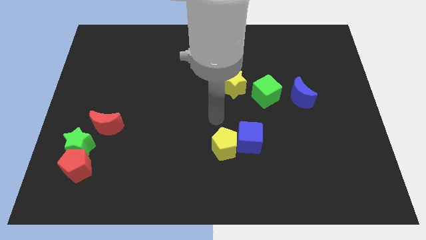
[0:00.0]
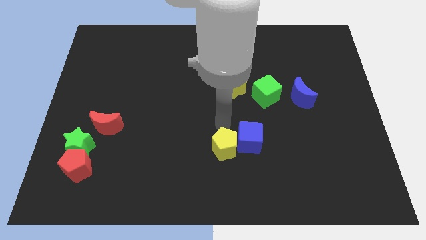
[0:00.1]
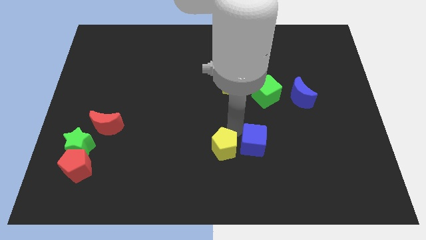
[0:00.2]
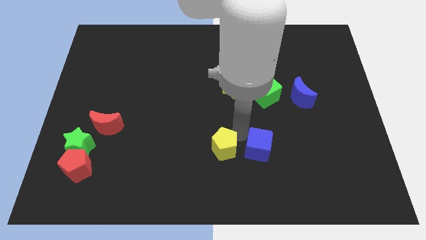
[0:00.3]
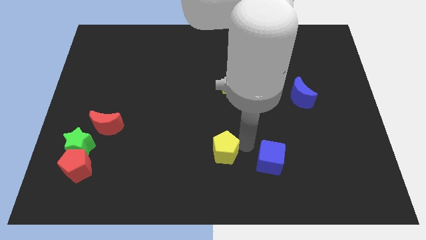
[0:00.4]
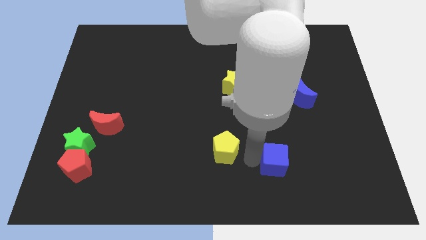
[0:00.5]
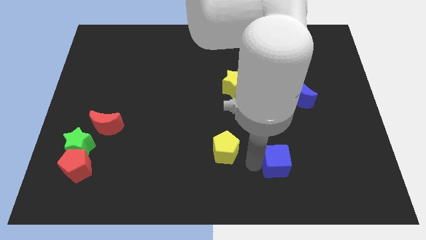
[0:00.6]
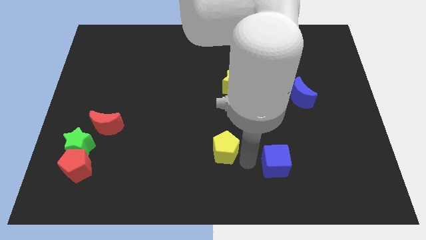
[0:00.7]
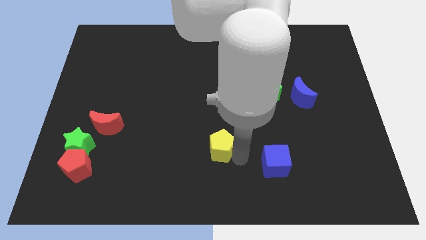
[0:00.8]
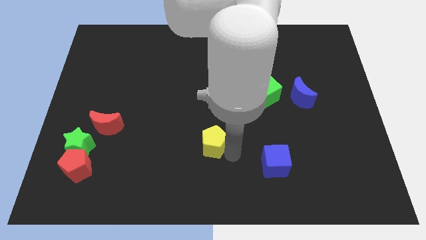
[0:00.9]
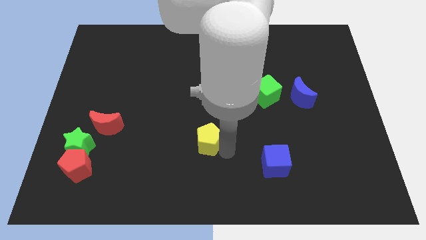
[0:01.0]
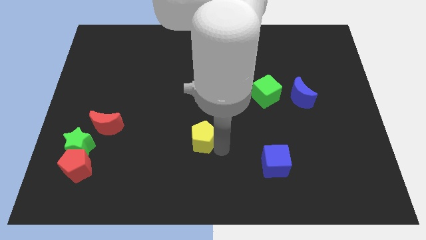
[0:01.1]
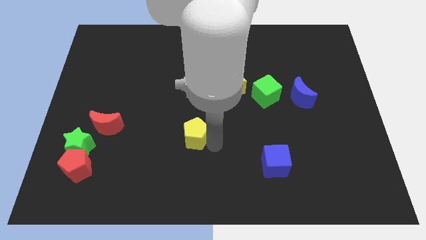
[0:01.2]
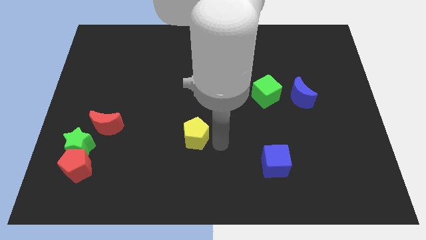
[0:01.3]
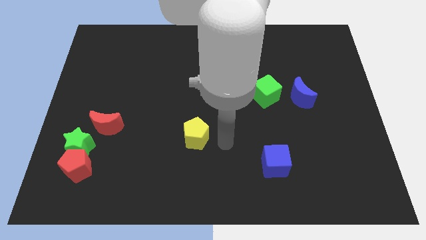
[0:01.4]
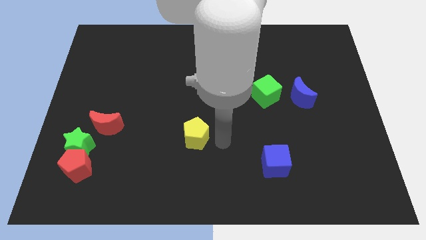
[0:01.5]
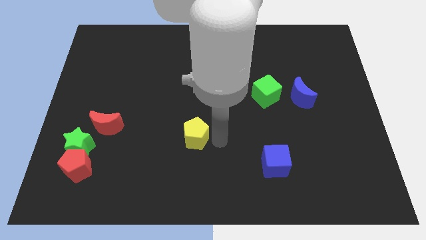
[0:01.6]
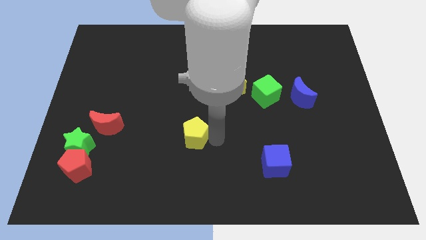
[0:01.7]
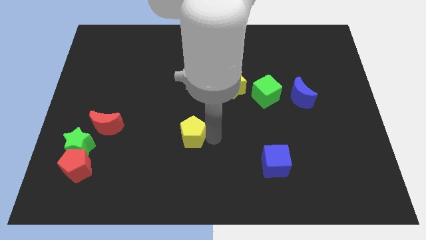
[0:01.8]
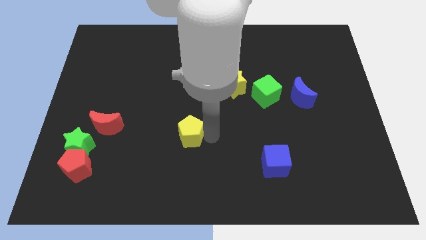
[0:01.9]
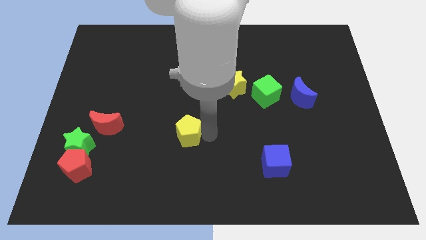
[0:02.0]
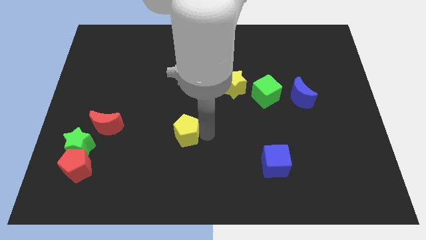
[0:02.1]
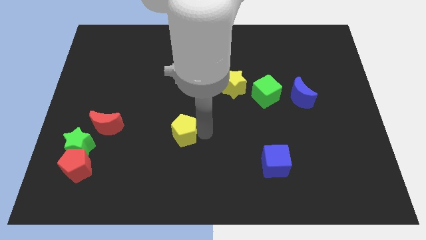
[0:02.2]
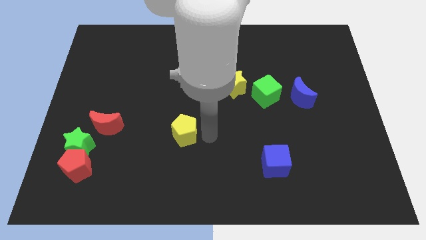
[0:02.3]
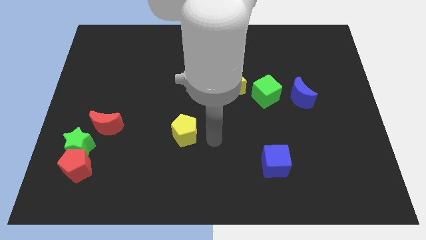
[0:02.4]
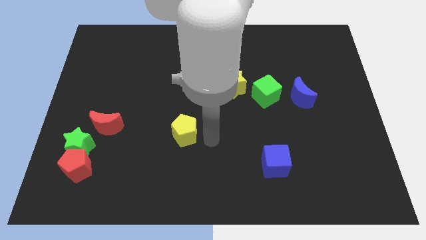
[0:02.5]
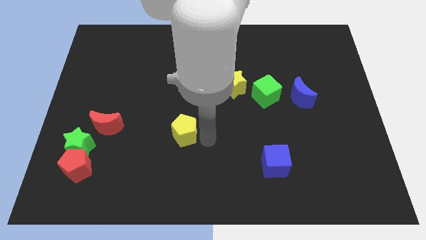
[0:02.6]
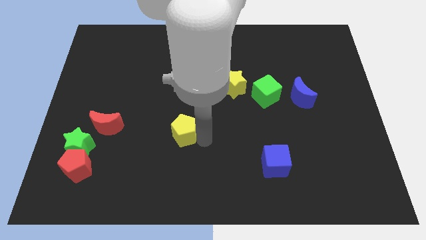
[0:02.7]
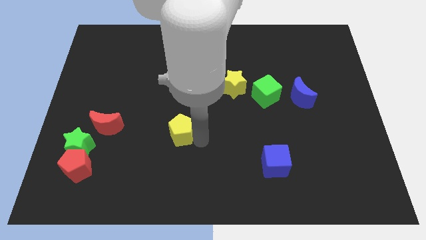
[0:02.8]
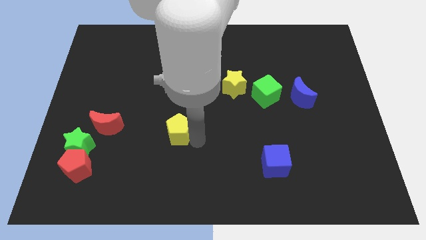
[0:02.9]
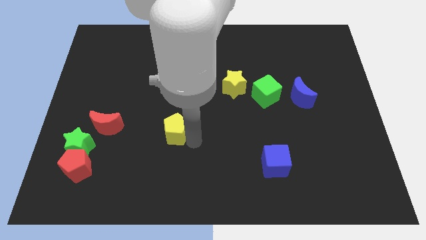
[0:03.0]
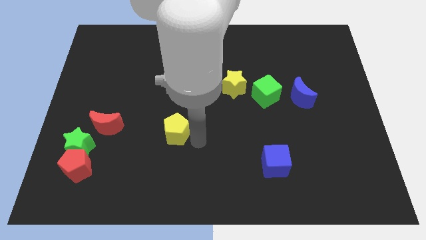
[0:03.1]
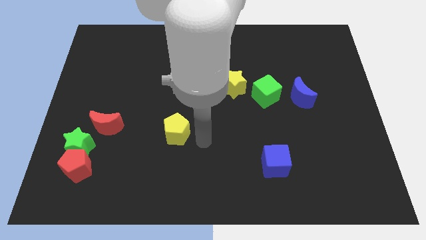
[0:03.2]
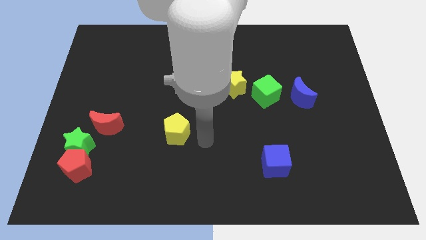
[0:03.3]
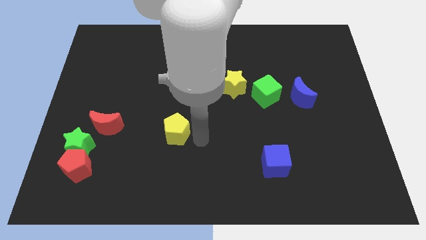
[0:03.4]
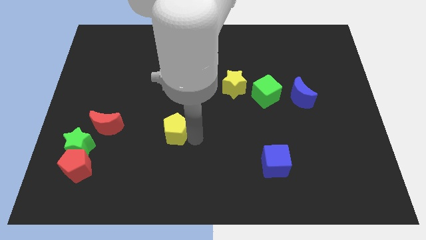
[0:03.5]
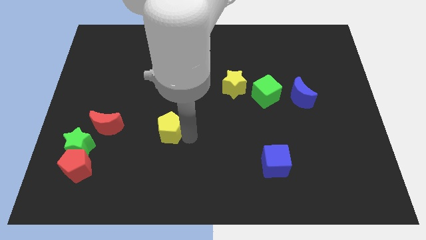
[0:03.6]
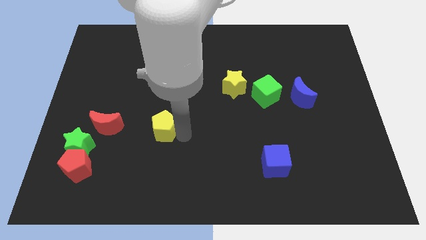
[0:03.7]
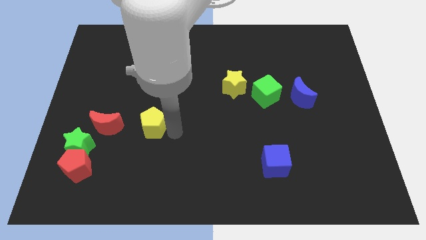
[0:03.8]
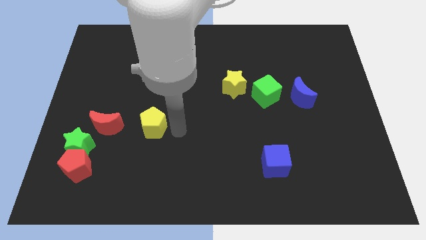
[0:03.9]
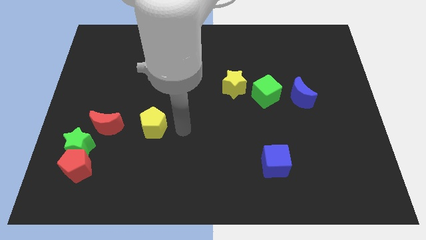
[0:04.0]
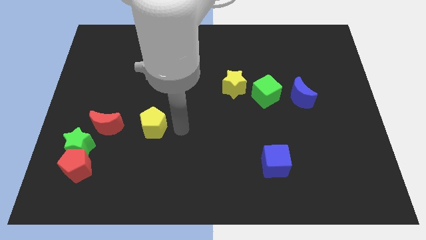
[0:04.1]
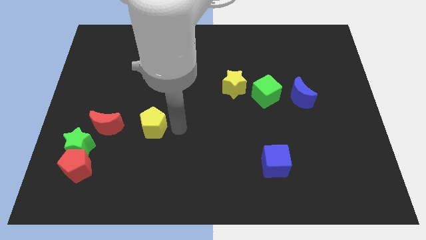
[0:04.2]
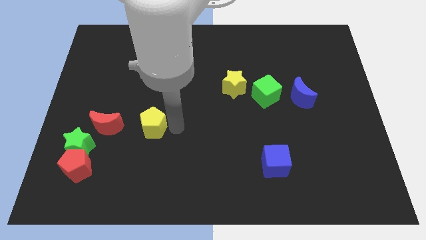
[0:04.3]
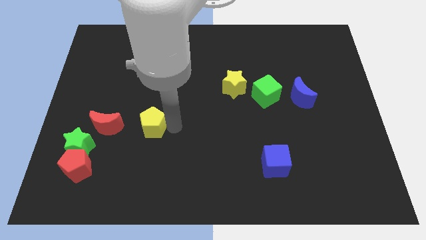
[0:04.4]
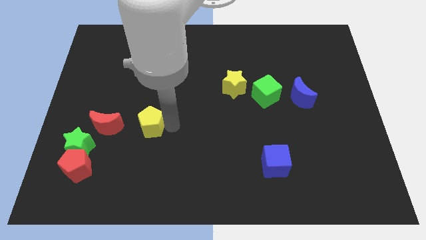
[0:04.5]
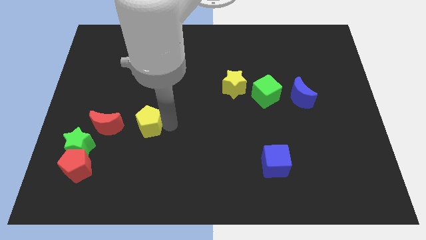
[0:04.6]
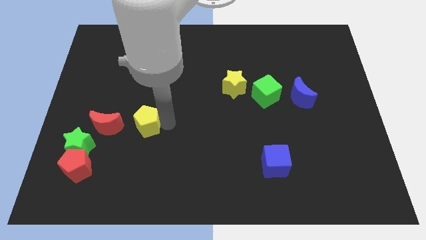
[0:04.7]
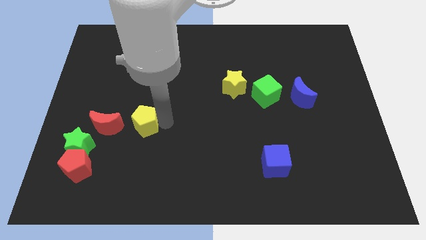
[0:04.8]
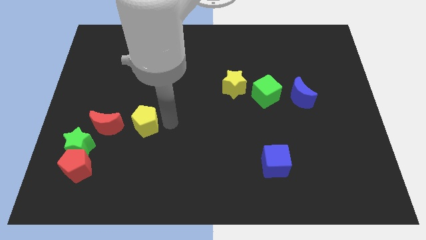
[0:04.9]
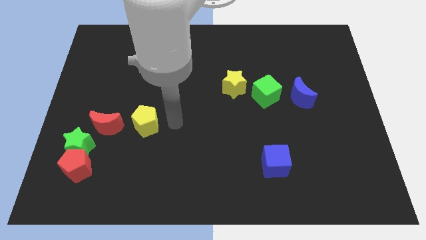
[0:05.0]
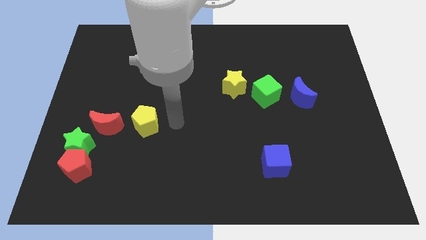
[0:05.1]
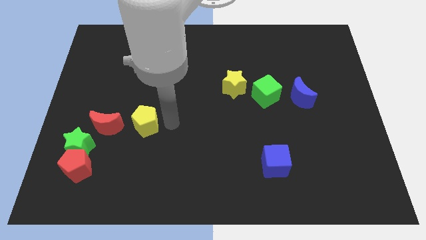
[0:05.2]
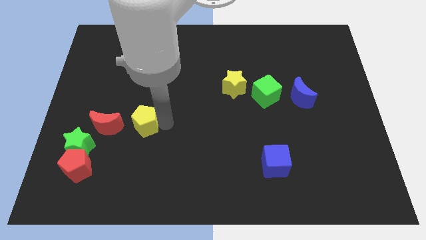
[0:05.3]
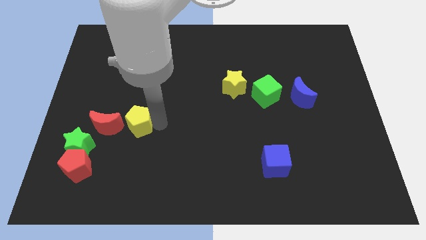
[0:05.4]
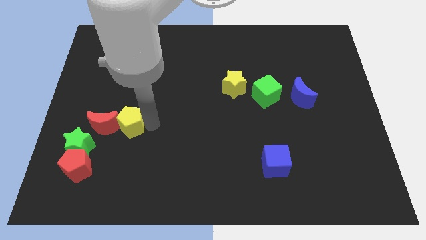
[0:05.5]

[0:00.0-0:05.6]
move the yellow pentagon close to the red moon

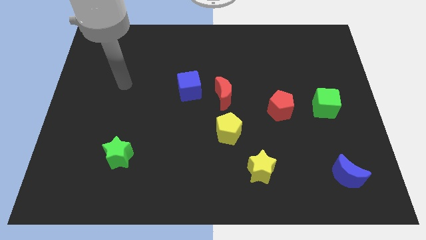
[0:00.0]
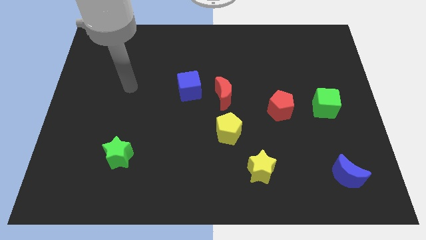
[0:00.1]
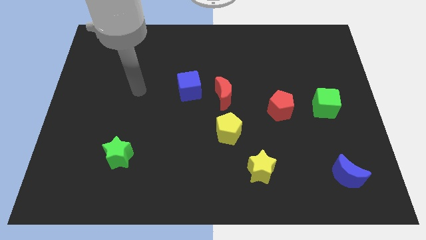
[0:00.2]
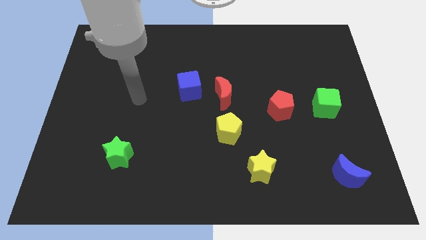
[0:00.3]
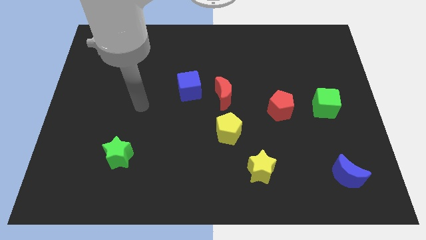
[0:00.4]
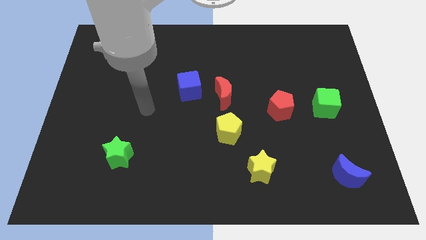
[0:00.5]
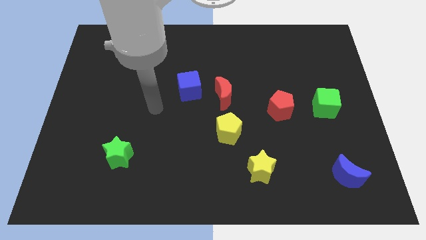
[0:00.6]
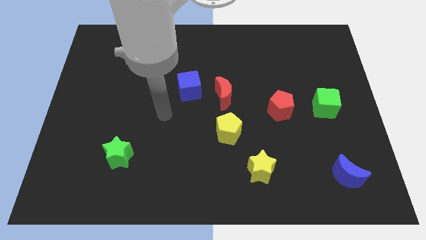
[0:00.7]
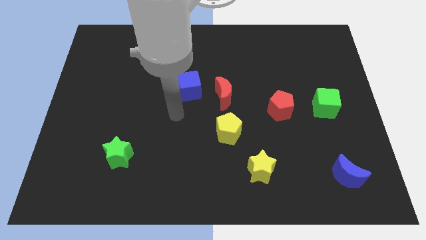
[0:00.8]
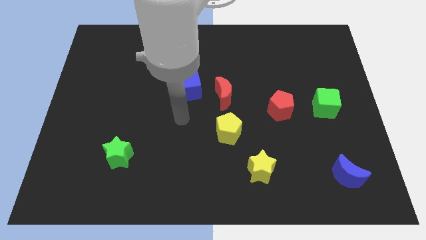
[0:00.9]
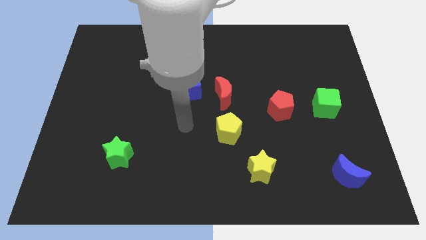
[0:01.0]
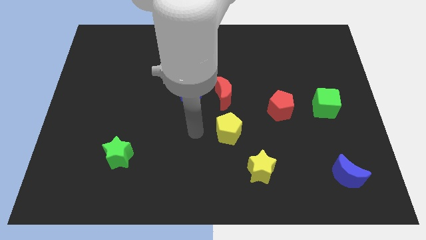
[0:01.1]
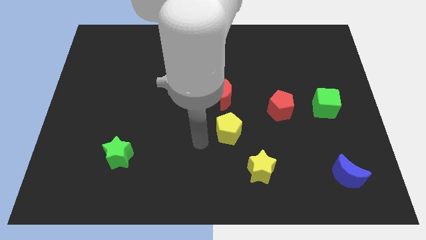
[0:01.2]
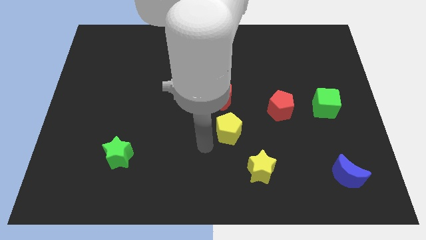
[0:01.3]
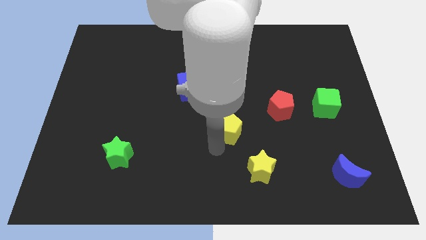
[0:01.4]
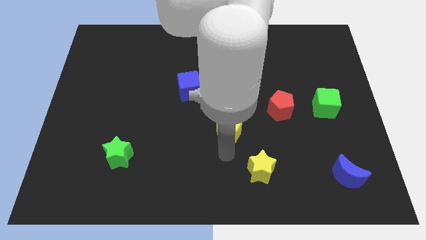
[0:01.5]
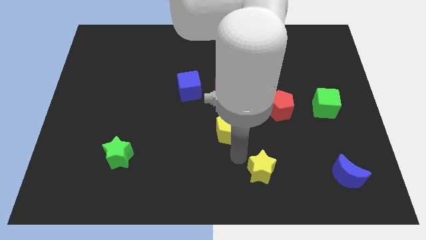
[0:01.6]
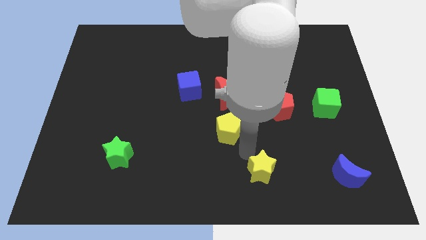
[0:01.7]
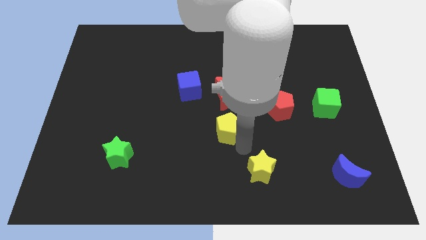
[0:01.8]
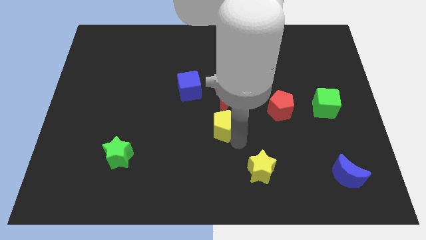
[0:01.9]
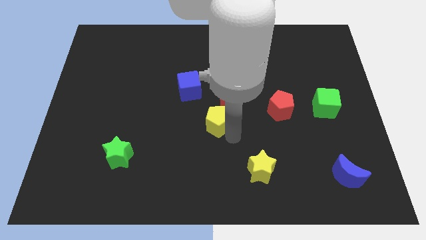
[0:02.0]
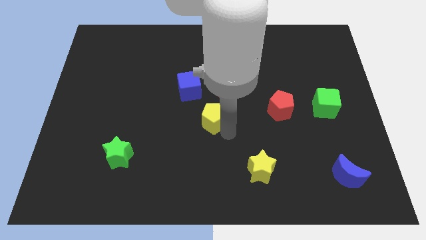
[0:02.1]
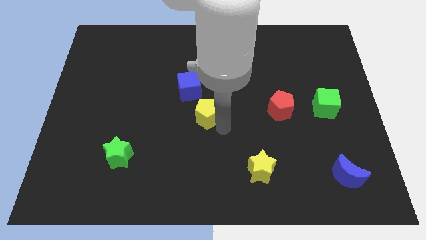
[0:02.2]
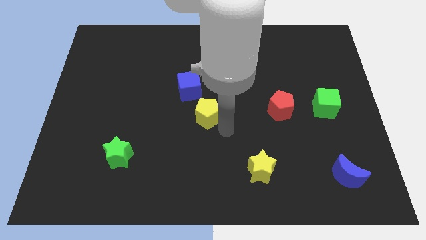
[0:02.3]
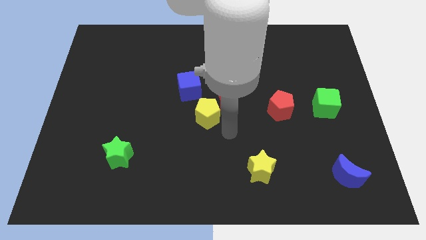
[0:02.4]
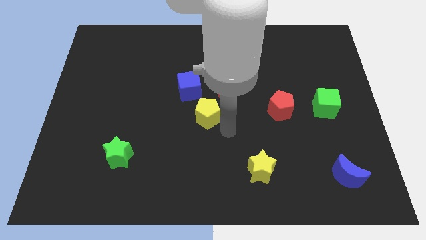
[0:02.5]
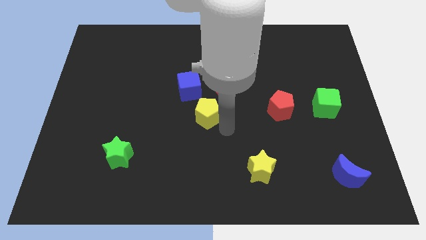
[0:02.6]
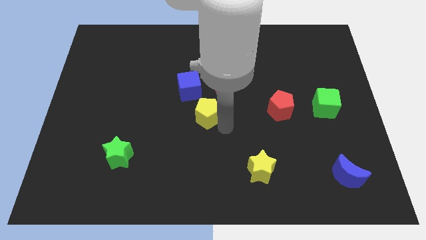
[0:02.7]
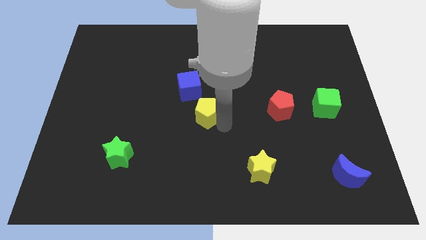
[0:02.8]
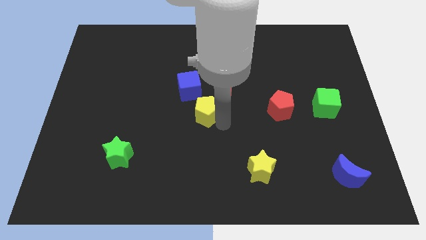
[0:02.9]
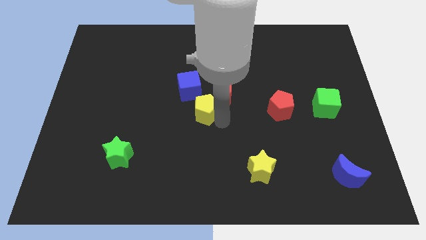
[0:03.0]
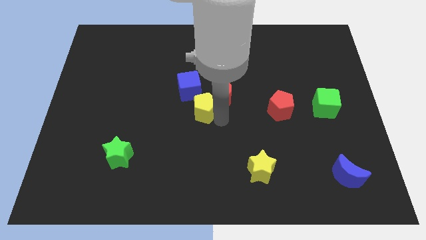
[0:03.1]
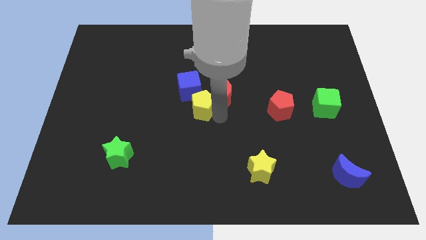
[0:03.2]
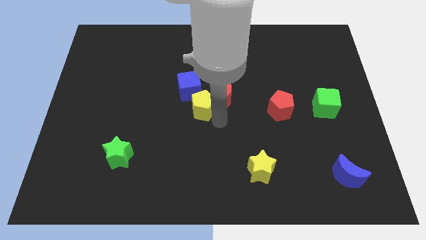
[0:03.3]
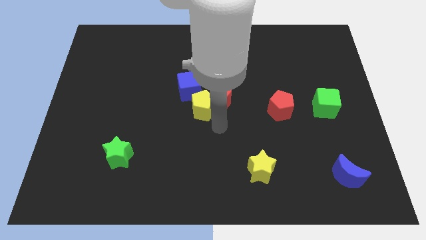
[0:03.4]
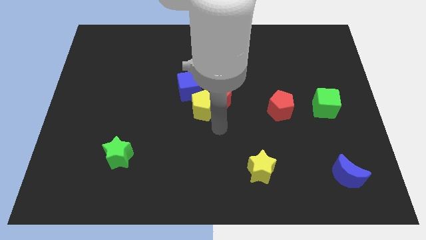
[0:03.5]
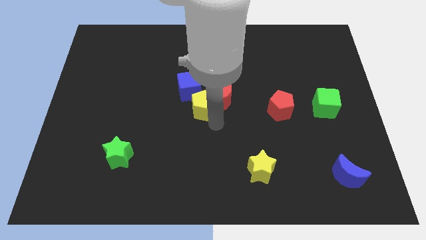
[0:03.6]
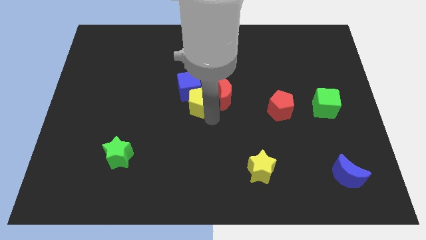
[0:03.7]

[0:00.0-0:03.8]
slide the yellow pentagon towards the blue cube
